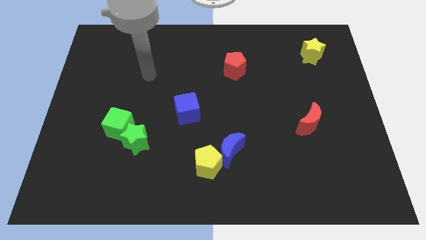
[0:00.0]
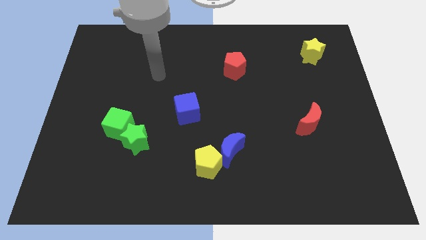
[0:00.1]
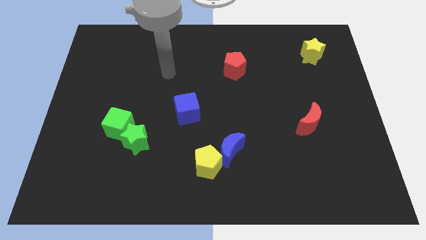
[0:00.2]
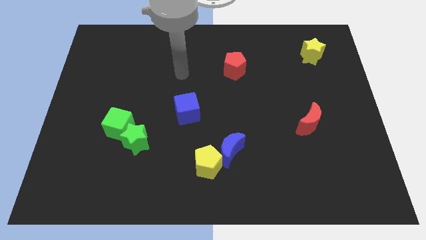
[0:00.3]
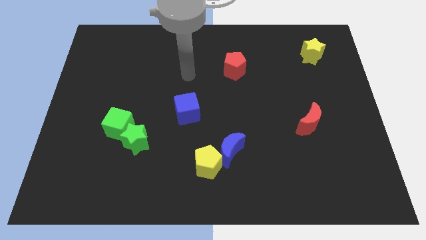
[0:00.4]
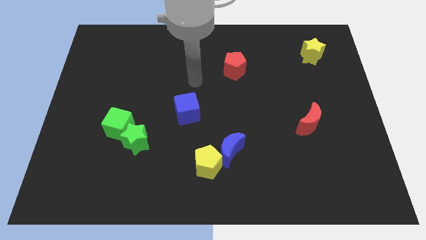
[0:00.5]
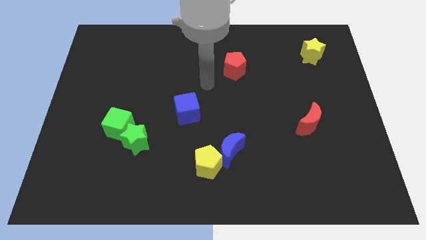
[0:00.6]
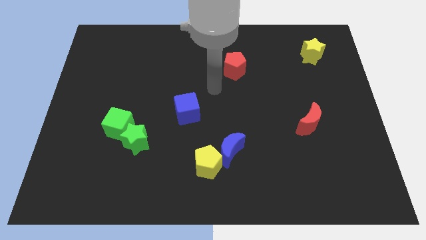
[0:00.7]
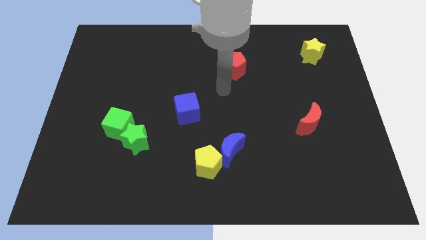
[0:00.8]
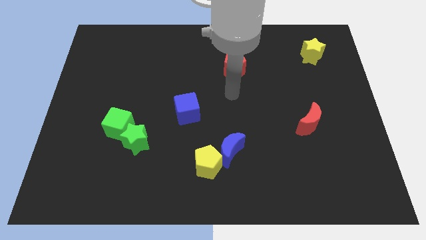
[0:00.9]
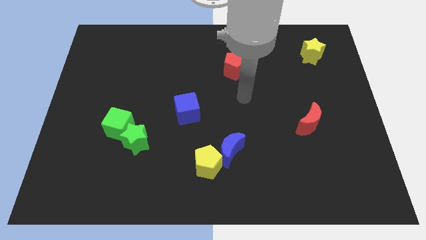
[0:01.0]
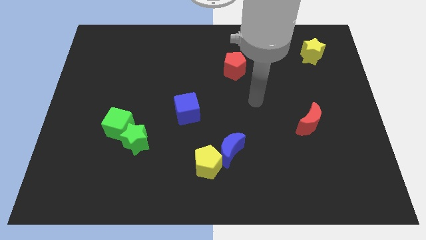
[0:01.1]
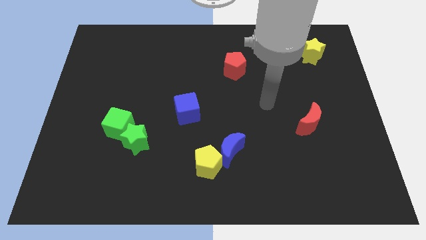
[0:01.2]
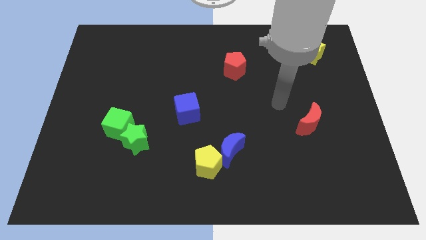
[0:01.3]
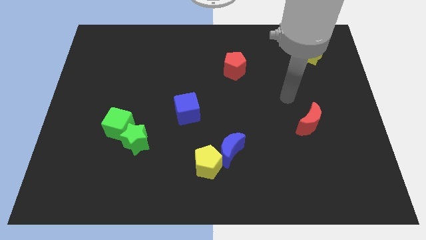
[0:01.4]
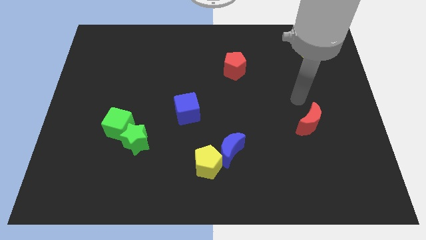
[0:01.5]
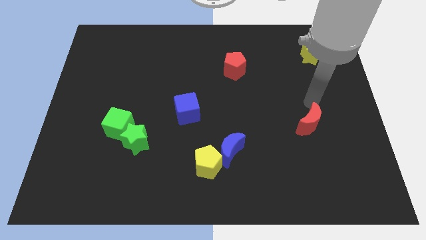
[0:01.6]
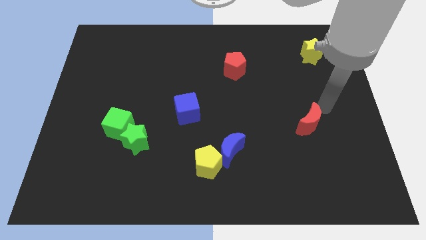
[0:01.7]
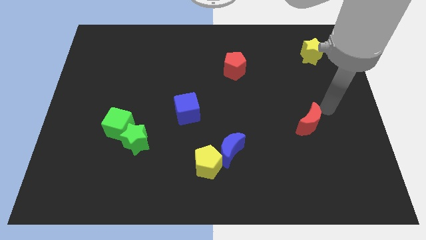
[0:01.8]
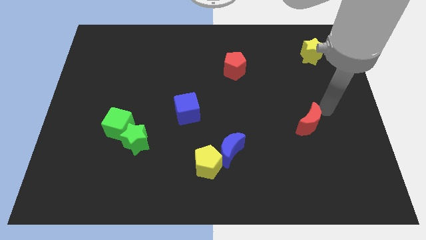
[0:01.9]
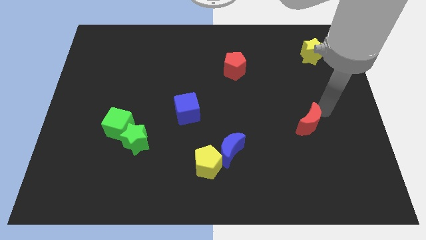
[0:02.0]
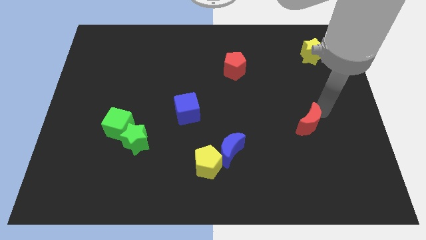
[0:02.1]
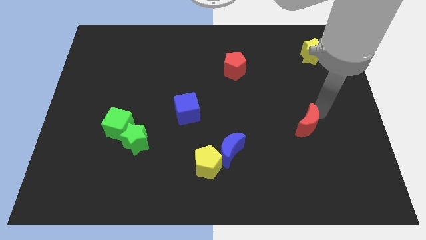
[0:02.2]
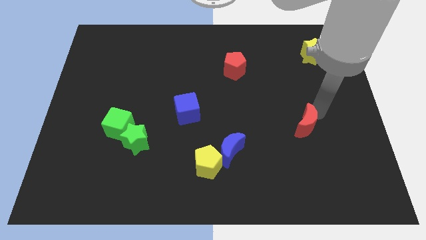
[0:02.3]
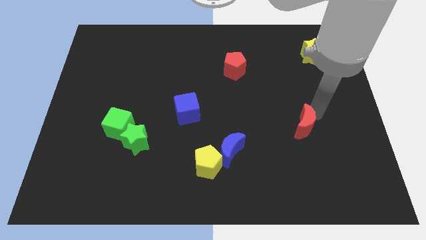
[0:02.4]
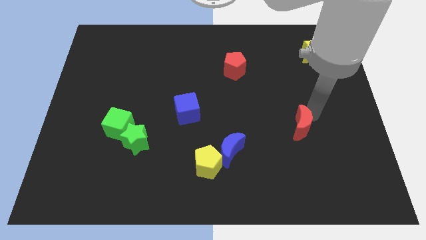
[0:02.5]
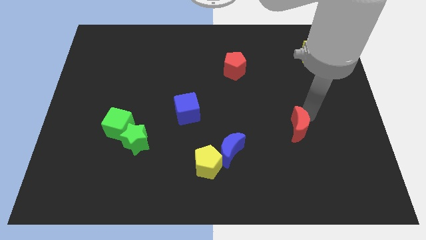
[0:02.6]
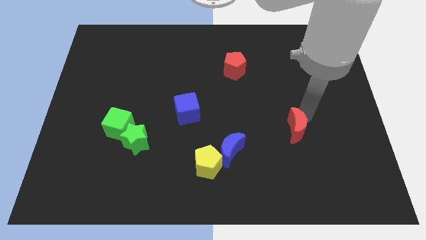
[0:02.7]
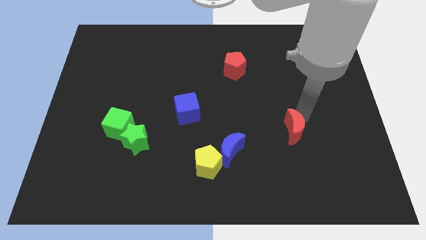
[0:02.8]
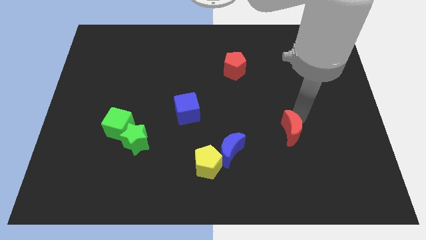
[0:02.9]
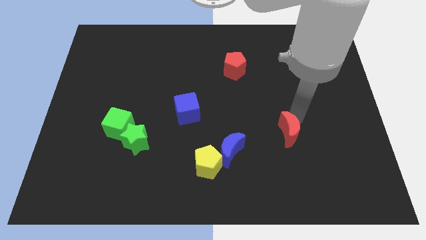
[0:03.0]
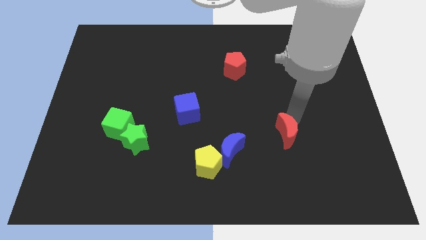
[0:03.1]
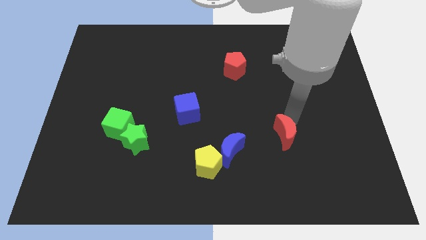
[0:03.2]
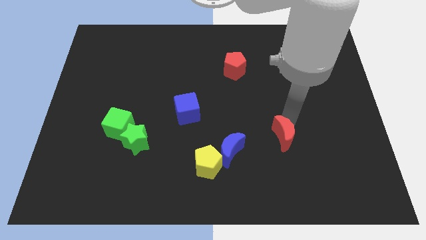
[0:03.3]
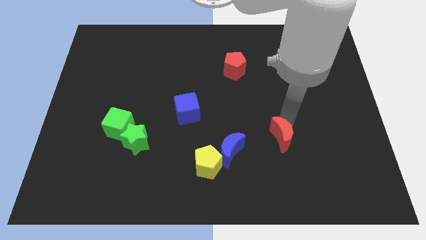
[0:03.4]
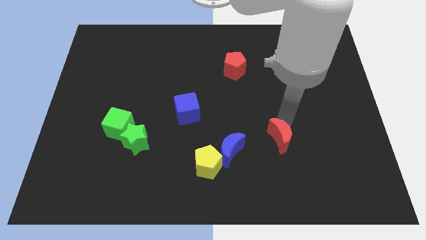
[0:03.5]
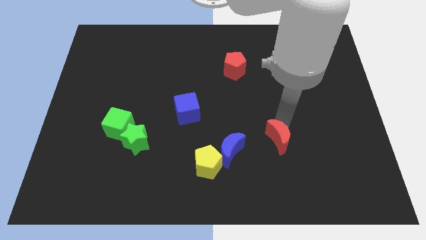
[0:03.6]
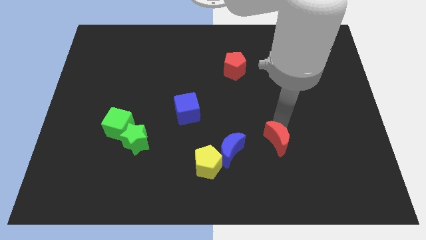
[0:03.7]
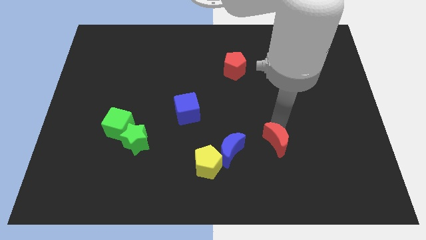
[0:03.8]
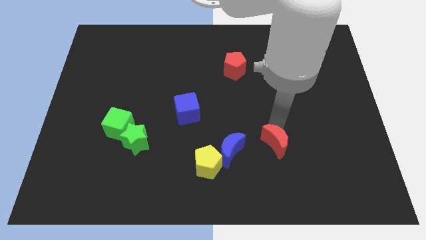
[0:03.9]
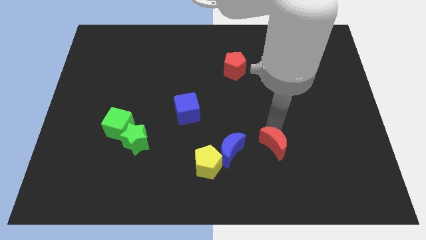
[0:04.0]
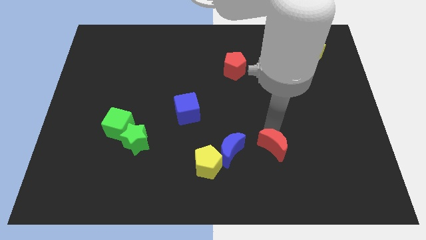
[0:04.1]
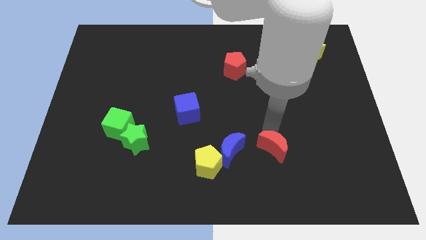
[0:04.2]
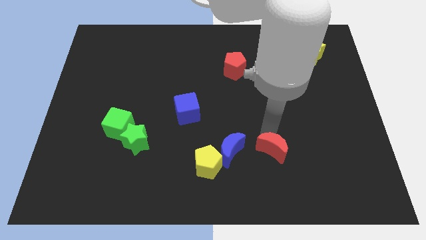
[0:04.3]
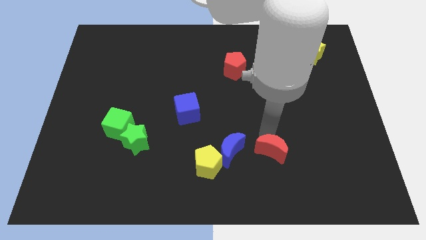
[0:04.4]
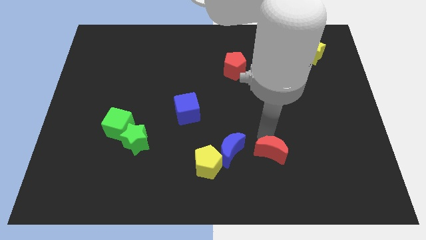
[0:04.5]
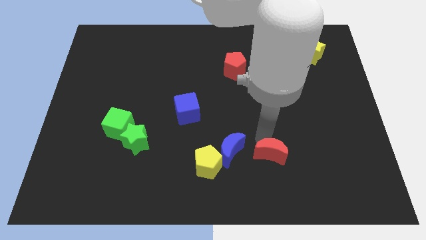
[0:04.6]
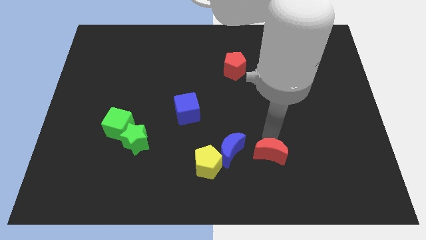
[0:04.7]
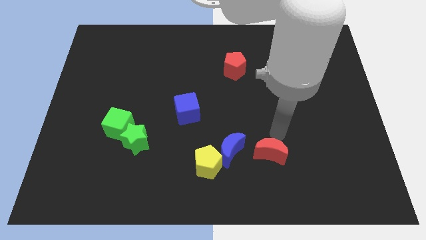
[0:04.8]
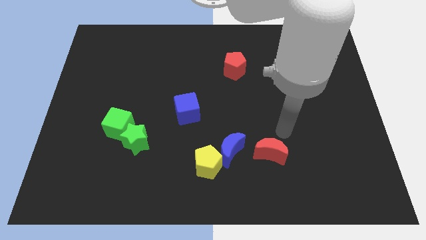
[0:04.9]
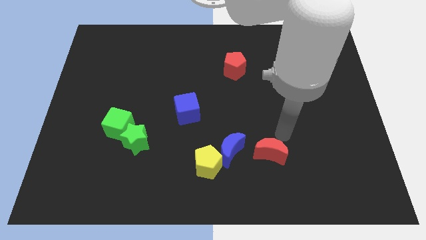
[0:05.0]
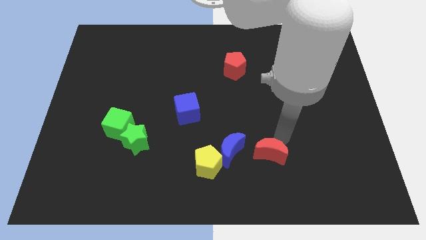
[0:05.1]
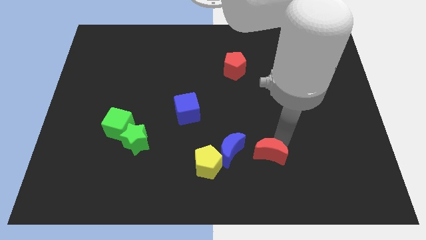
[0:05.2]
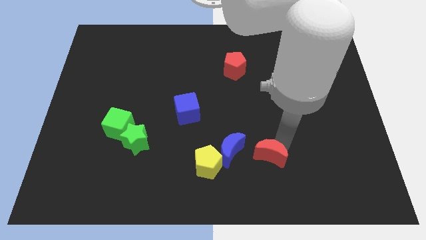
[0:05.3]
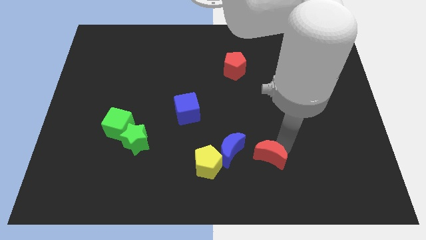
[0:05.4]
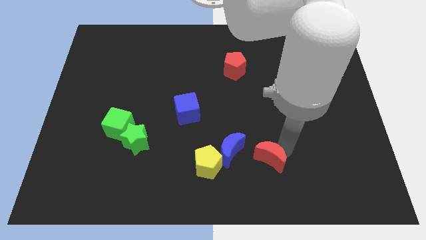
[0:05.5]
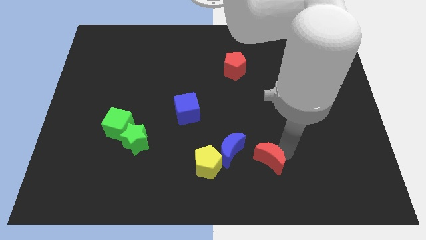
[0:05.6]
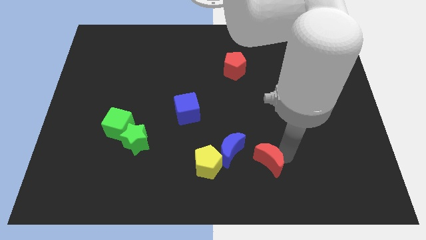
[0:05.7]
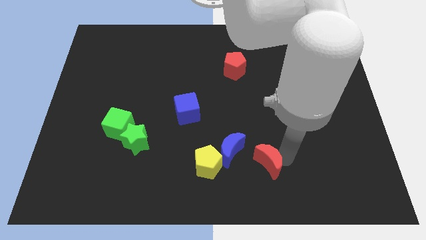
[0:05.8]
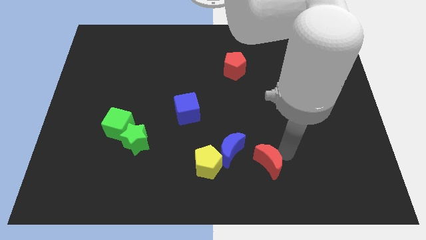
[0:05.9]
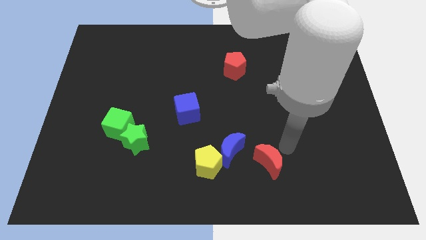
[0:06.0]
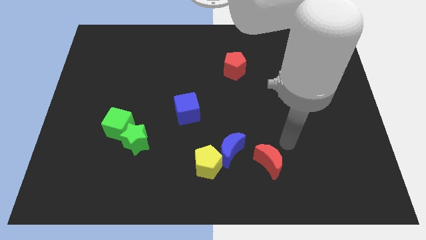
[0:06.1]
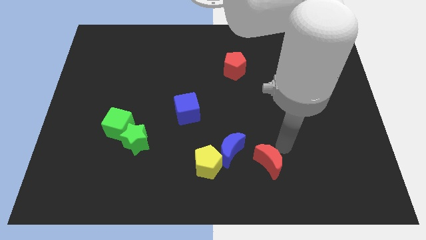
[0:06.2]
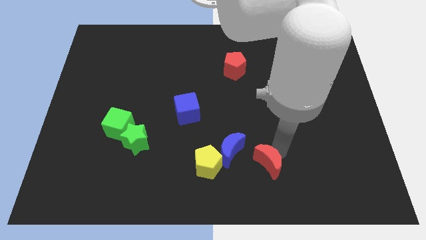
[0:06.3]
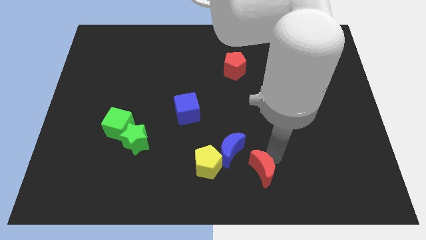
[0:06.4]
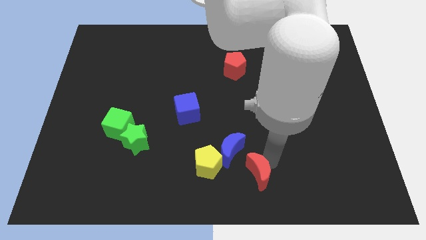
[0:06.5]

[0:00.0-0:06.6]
push the red moon to the bottom
